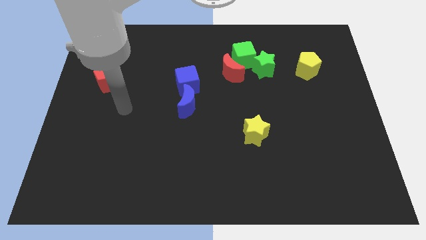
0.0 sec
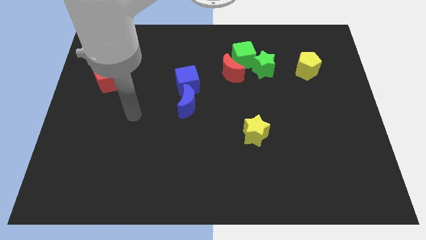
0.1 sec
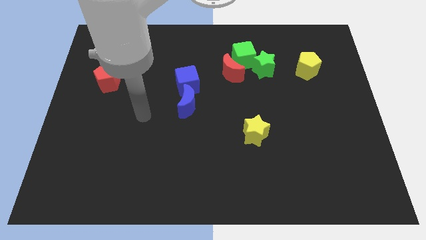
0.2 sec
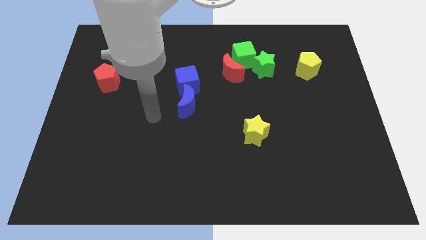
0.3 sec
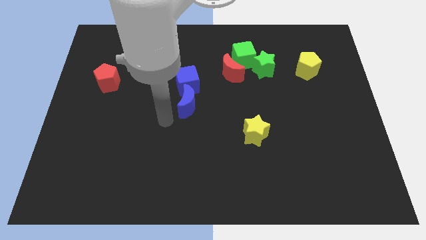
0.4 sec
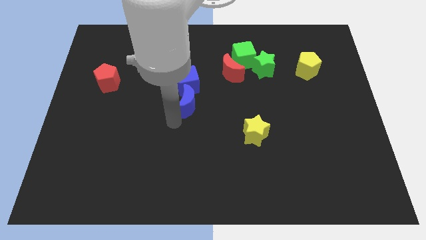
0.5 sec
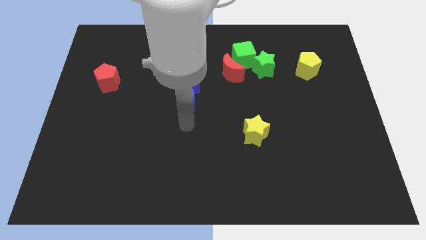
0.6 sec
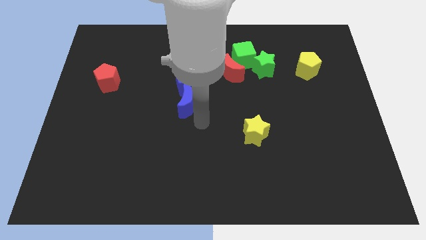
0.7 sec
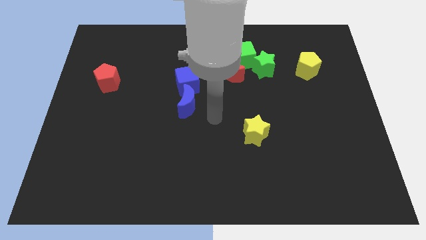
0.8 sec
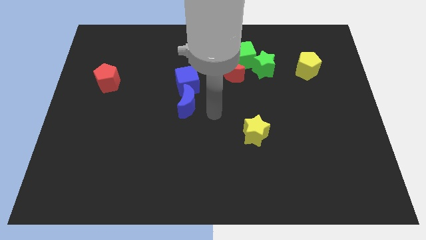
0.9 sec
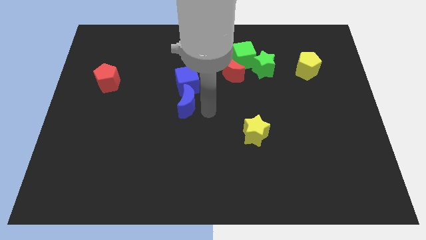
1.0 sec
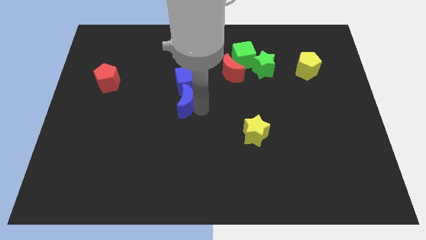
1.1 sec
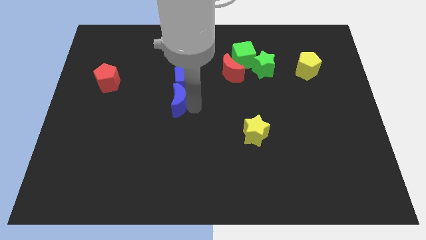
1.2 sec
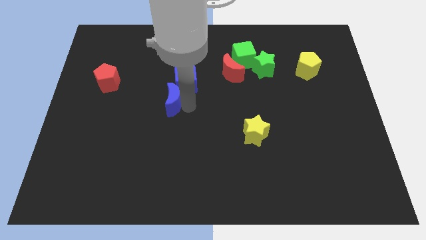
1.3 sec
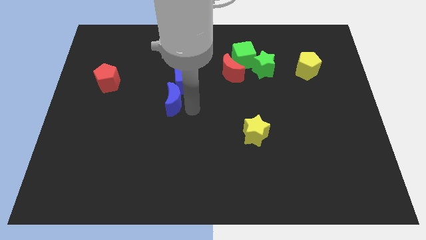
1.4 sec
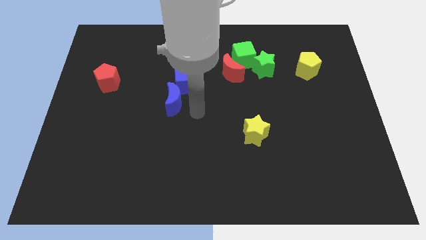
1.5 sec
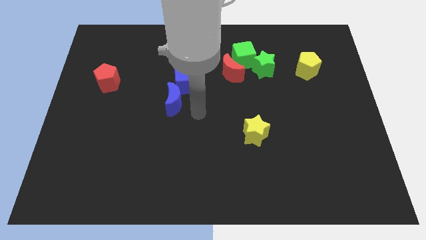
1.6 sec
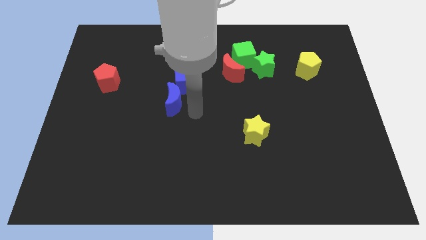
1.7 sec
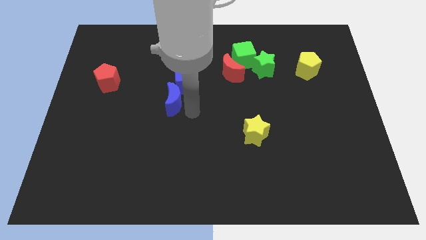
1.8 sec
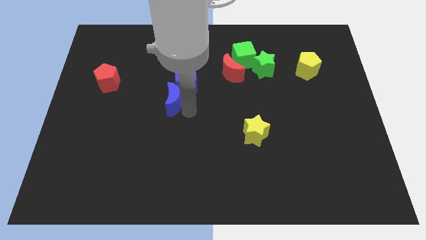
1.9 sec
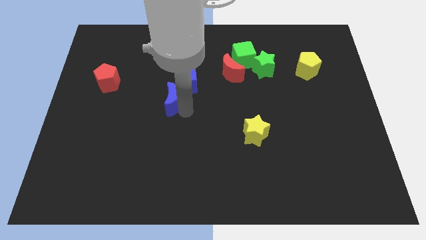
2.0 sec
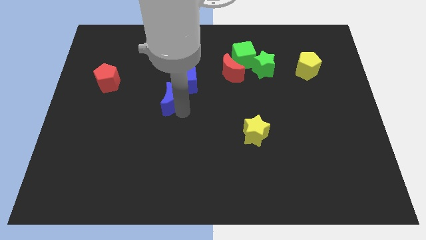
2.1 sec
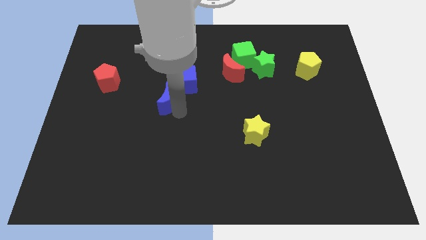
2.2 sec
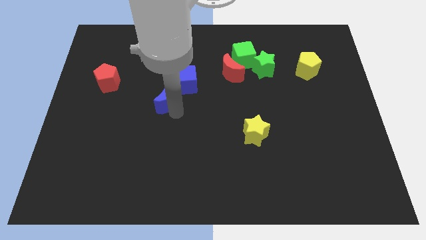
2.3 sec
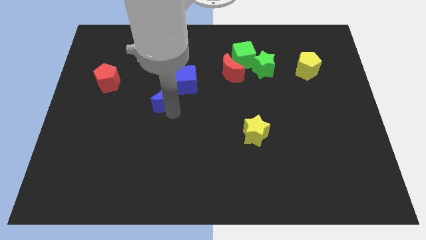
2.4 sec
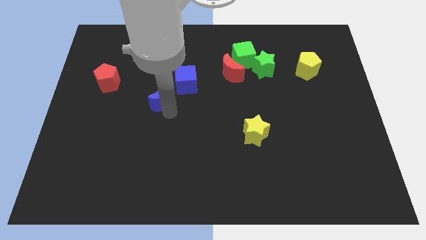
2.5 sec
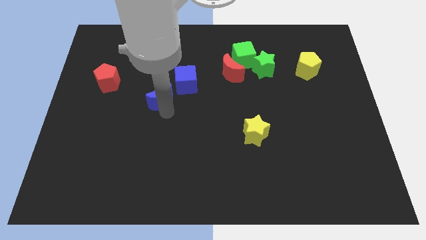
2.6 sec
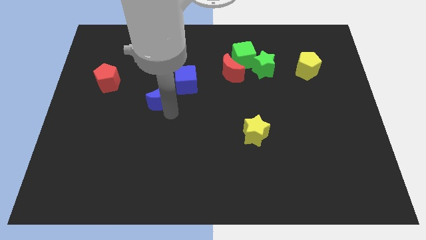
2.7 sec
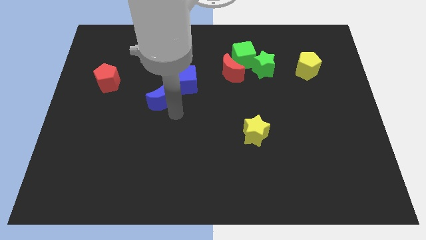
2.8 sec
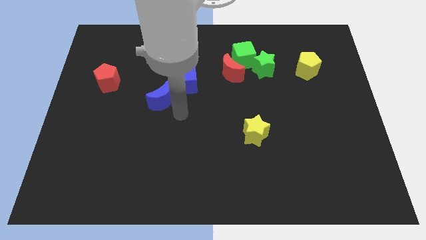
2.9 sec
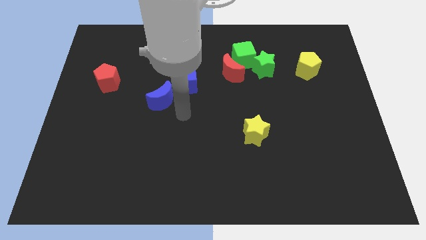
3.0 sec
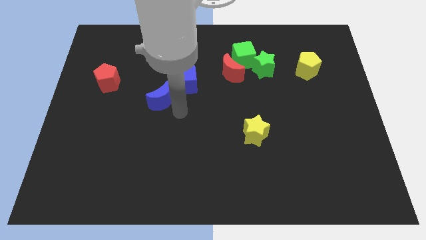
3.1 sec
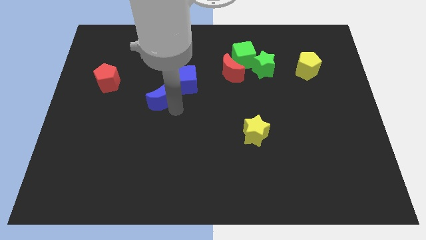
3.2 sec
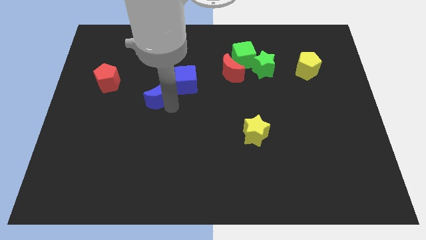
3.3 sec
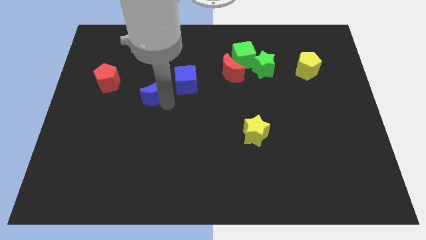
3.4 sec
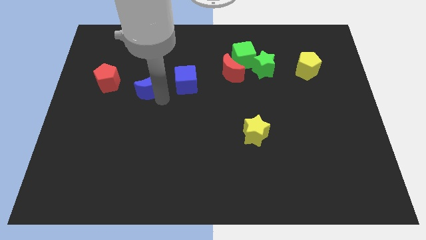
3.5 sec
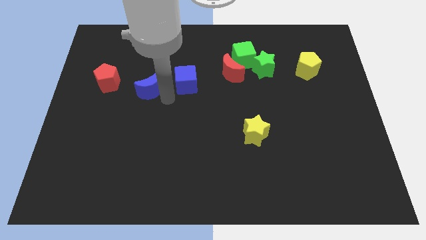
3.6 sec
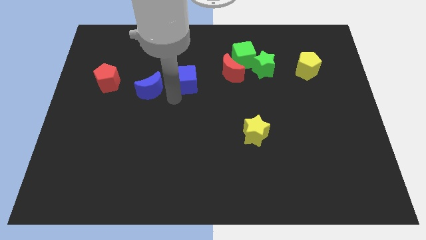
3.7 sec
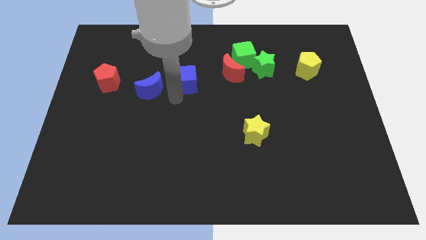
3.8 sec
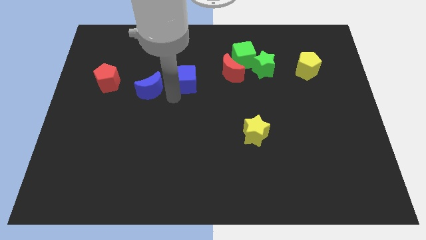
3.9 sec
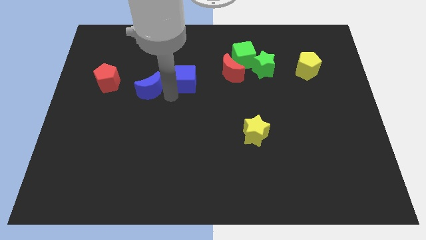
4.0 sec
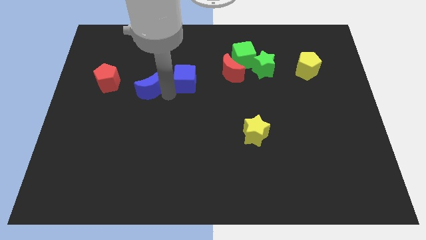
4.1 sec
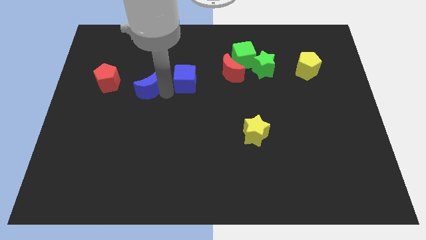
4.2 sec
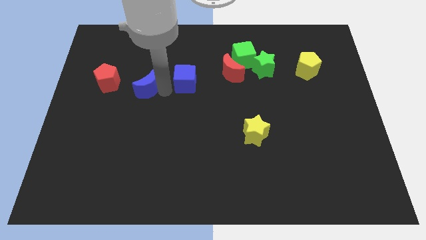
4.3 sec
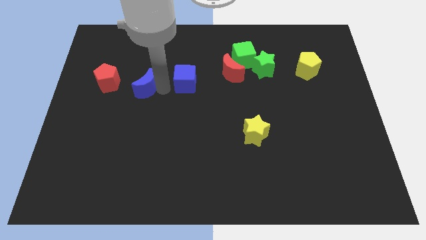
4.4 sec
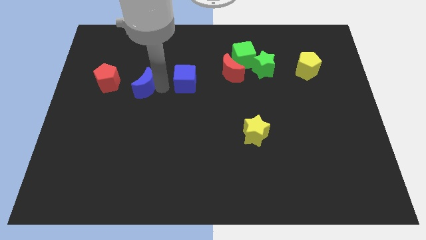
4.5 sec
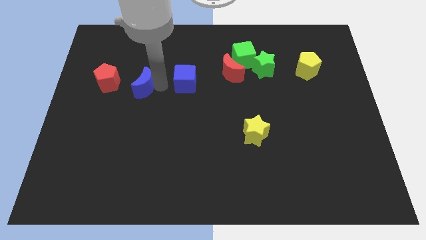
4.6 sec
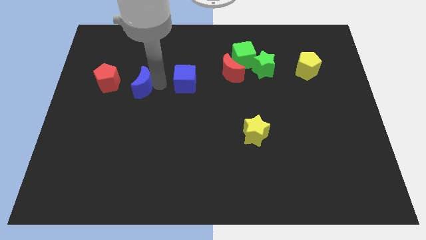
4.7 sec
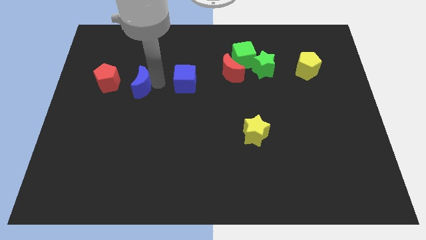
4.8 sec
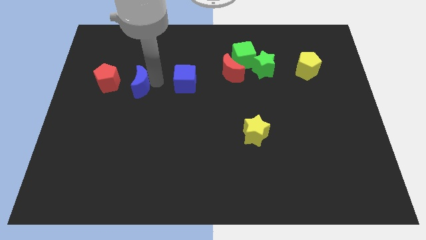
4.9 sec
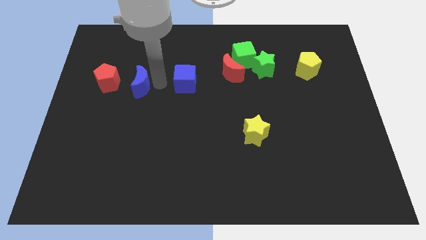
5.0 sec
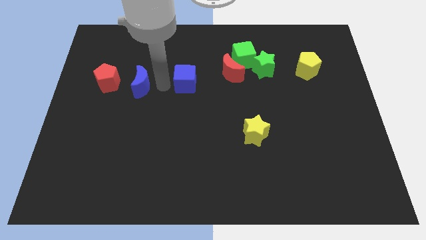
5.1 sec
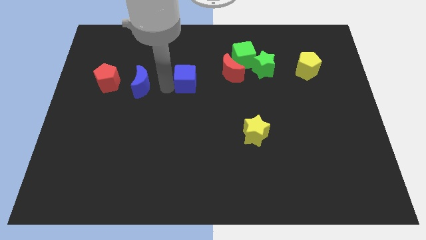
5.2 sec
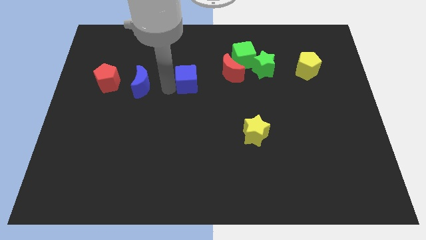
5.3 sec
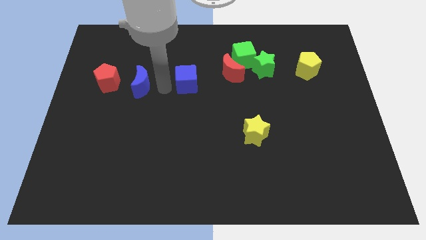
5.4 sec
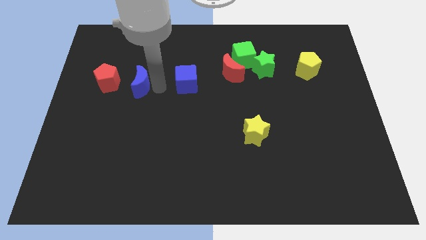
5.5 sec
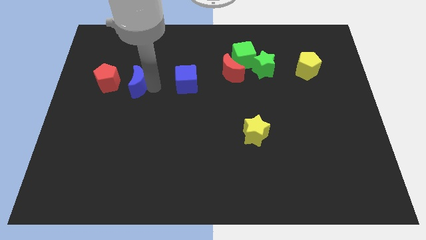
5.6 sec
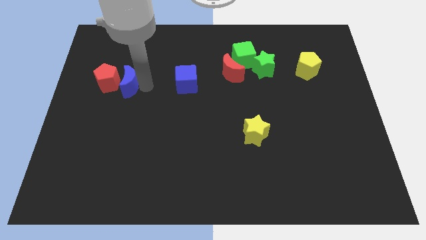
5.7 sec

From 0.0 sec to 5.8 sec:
move the blue moon next to the red pentagon
